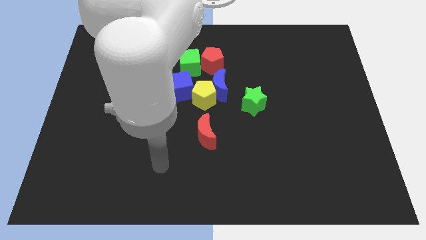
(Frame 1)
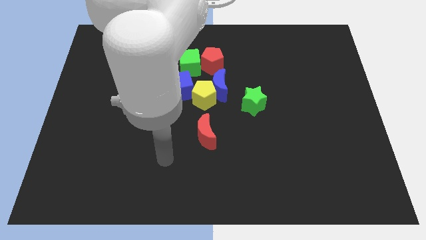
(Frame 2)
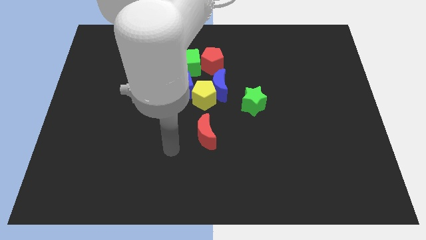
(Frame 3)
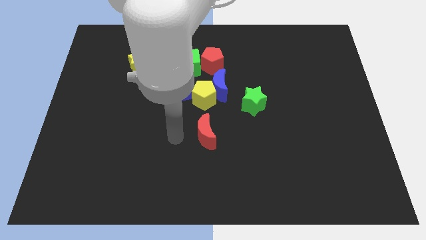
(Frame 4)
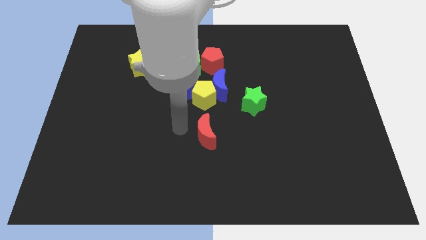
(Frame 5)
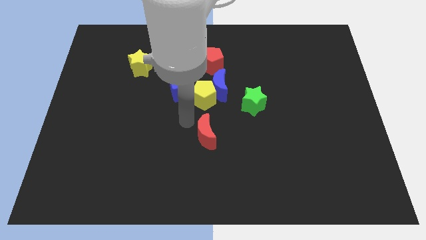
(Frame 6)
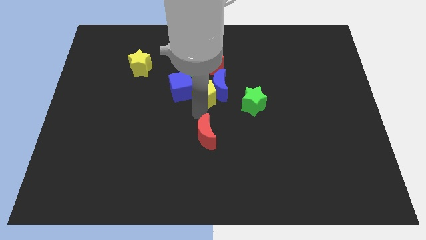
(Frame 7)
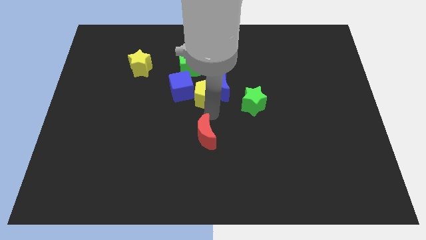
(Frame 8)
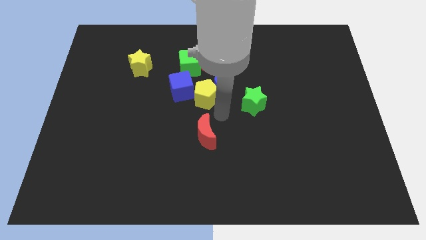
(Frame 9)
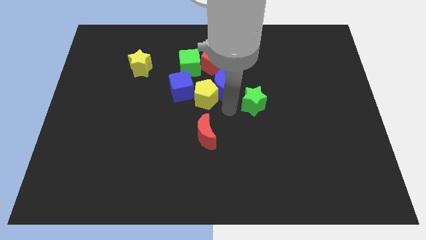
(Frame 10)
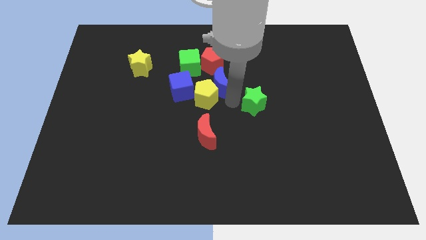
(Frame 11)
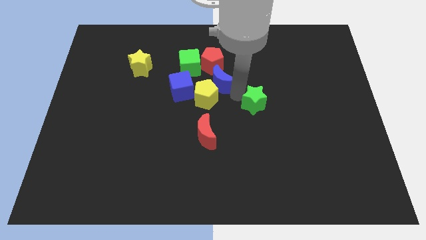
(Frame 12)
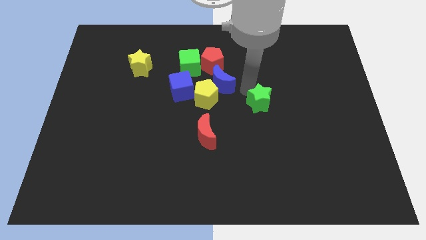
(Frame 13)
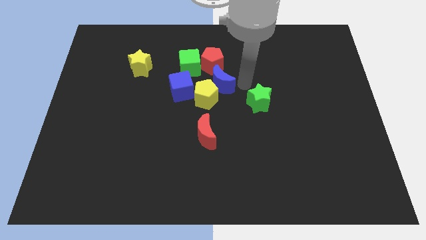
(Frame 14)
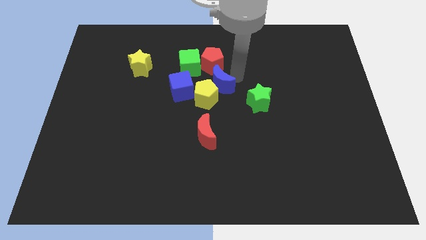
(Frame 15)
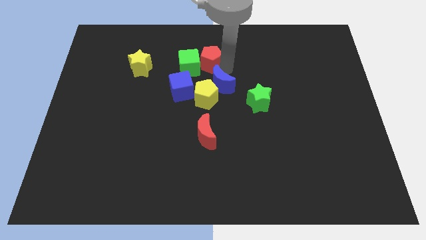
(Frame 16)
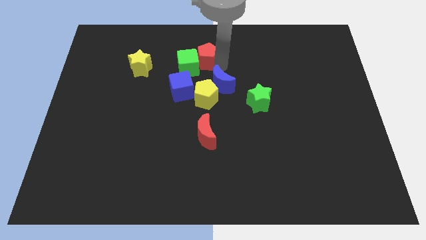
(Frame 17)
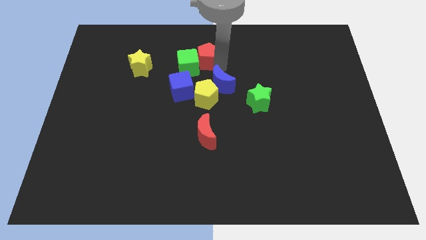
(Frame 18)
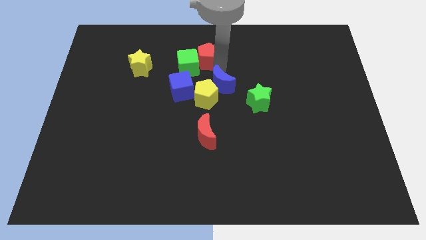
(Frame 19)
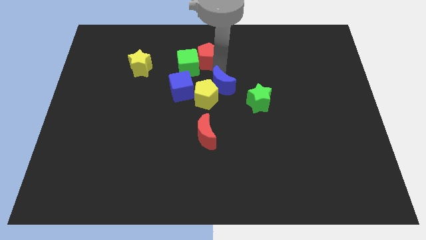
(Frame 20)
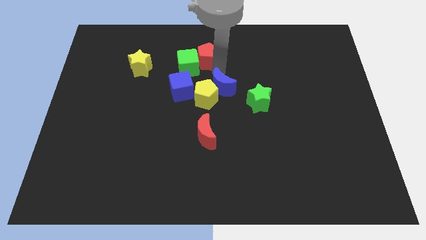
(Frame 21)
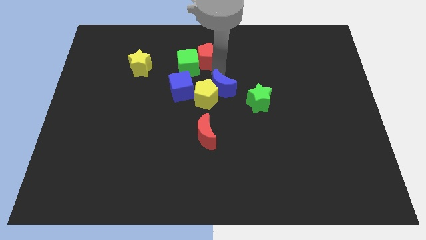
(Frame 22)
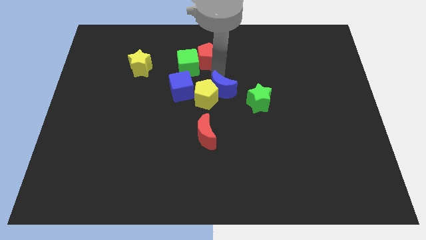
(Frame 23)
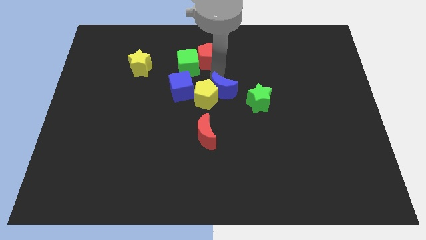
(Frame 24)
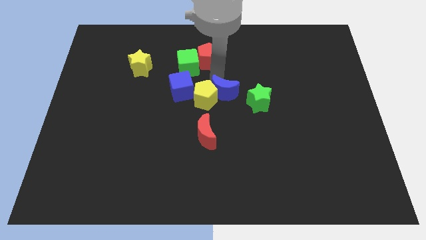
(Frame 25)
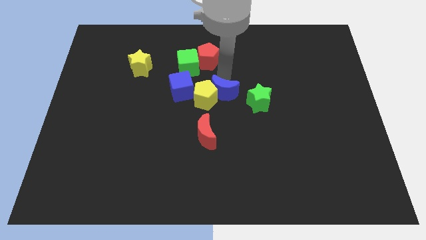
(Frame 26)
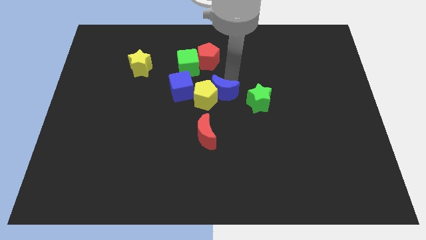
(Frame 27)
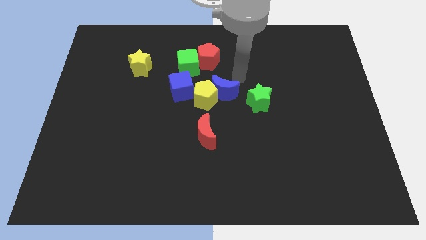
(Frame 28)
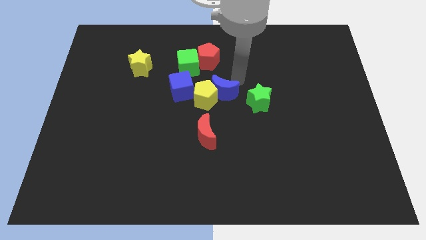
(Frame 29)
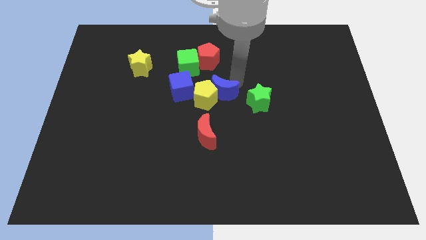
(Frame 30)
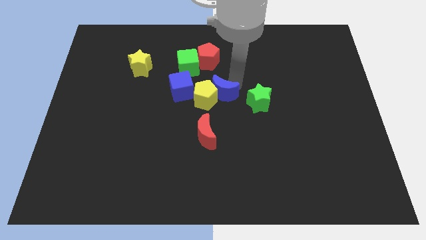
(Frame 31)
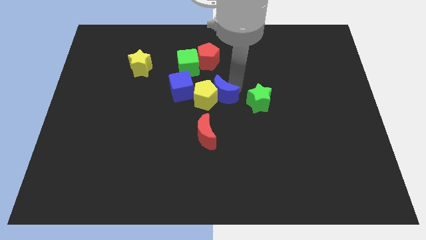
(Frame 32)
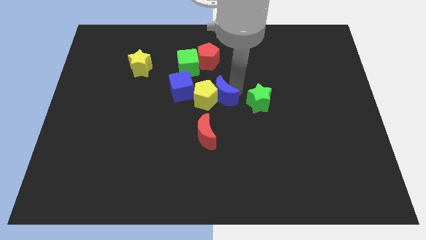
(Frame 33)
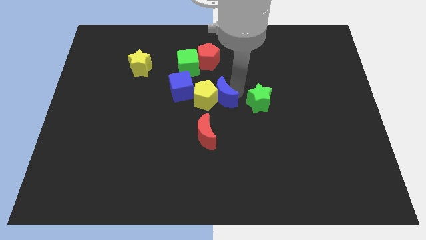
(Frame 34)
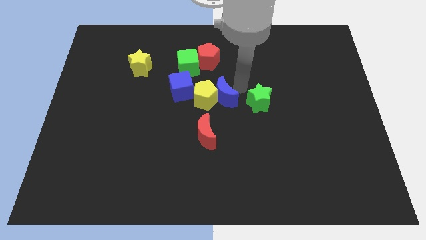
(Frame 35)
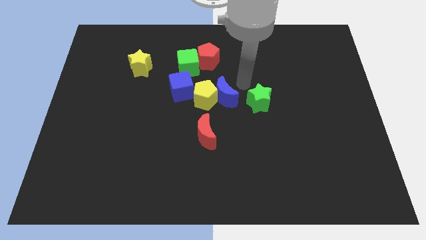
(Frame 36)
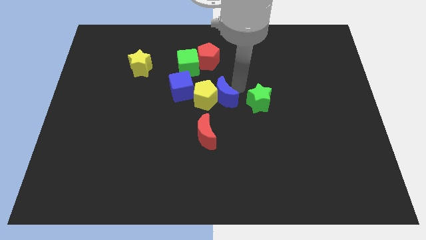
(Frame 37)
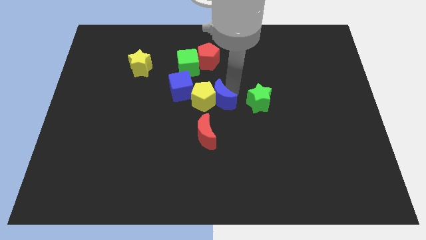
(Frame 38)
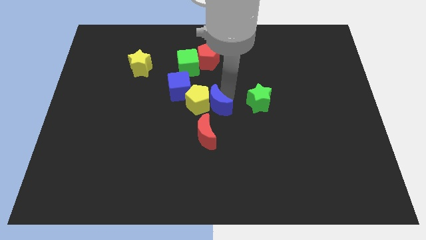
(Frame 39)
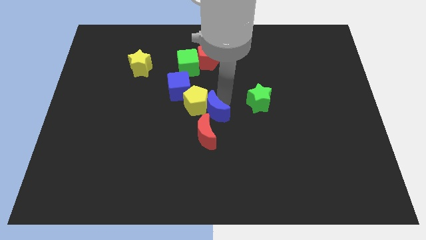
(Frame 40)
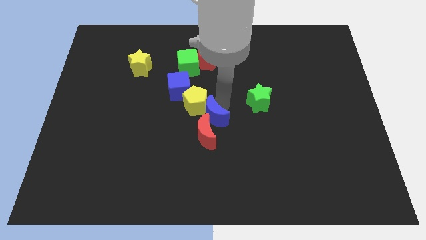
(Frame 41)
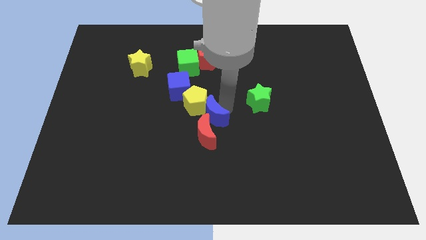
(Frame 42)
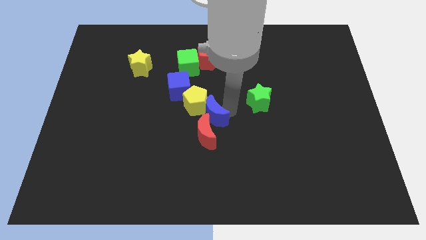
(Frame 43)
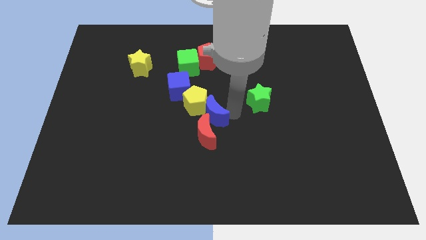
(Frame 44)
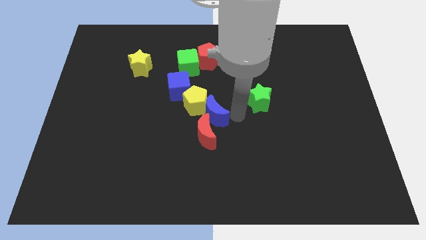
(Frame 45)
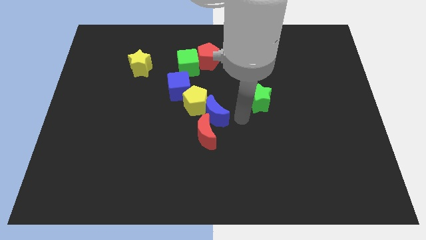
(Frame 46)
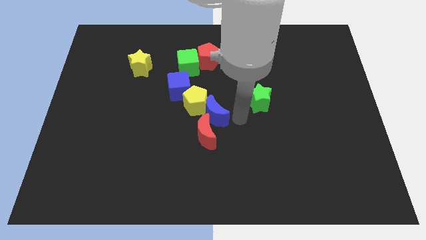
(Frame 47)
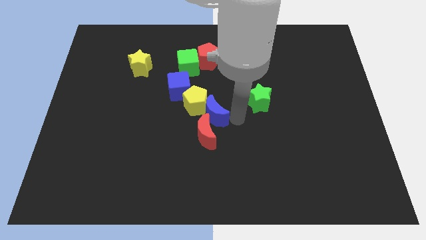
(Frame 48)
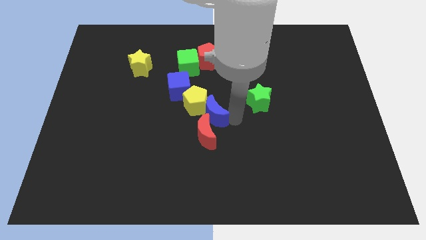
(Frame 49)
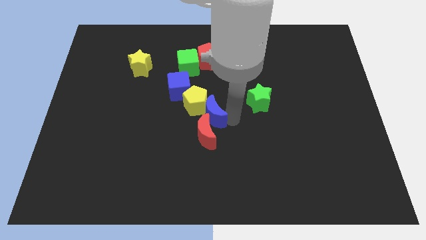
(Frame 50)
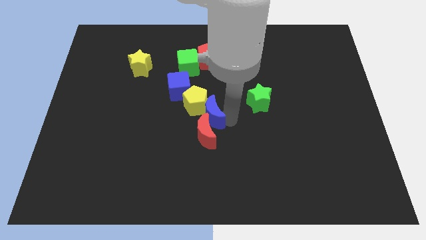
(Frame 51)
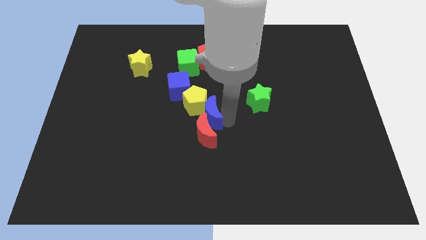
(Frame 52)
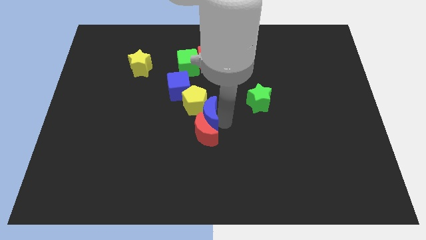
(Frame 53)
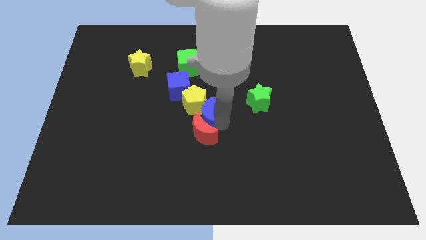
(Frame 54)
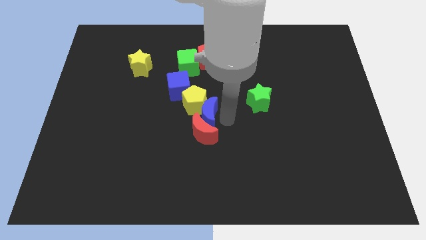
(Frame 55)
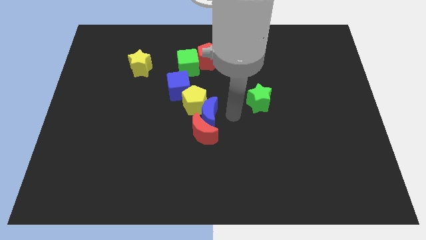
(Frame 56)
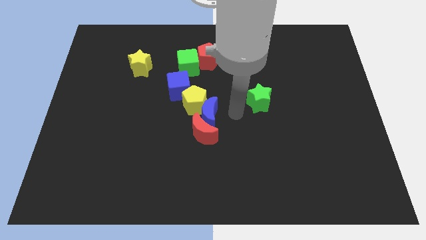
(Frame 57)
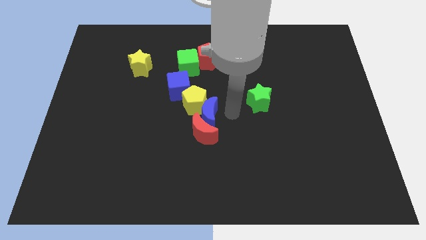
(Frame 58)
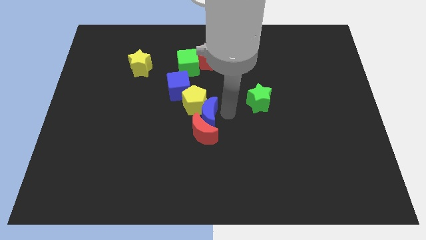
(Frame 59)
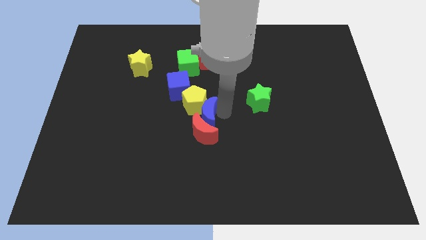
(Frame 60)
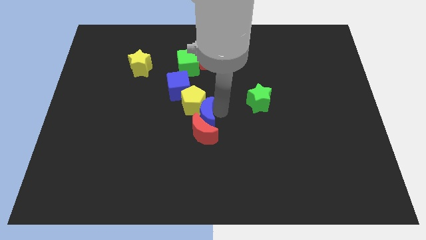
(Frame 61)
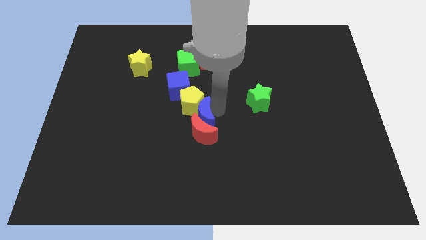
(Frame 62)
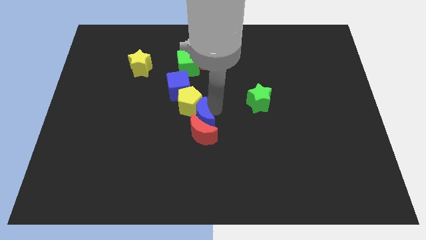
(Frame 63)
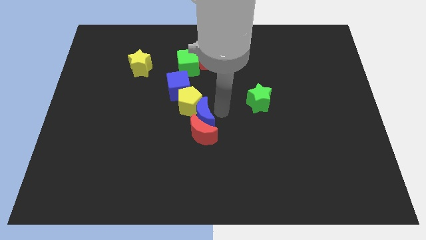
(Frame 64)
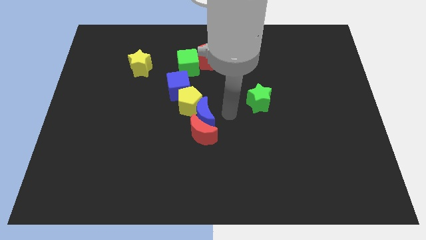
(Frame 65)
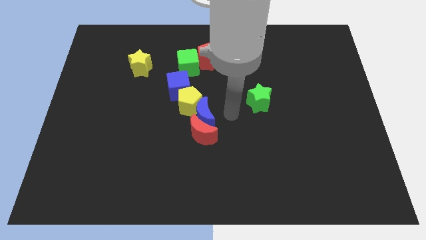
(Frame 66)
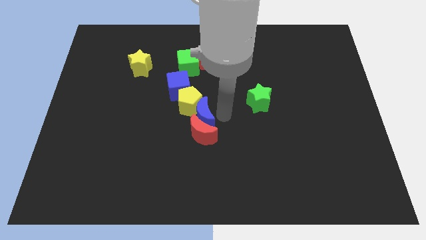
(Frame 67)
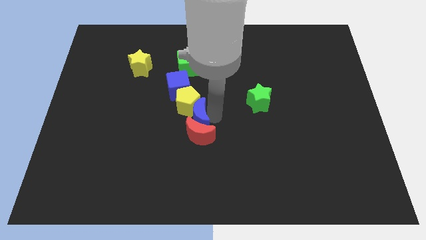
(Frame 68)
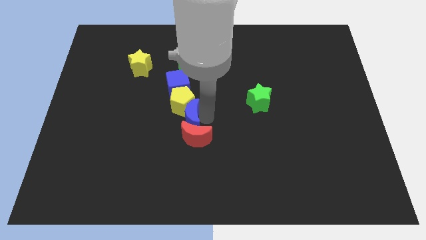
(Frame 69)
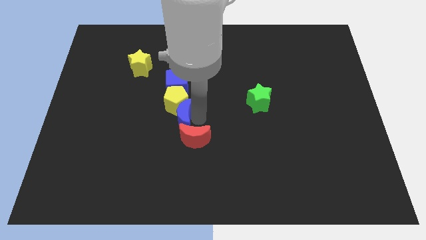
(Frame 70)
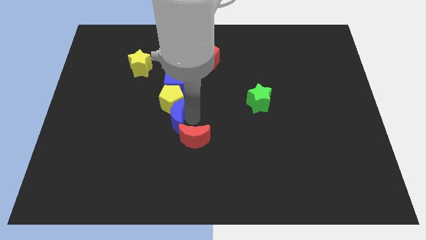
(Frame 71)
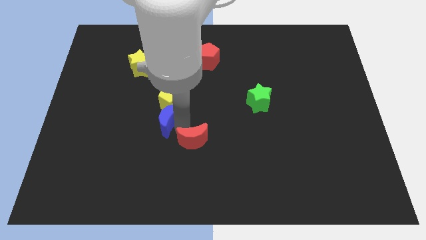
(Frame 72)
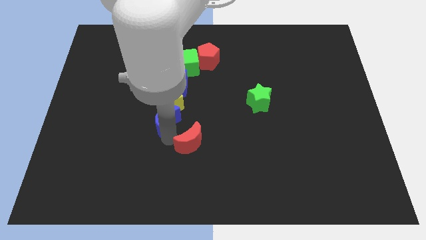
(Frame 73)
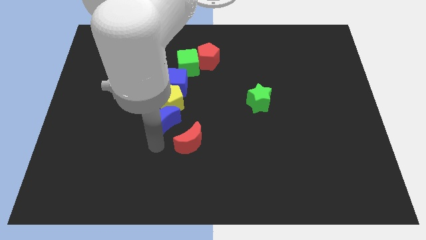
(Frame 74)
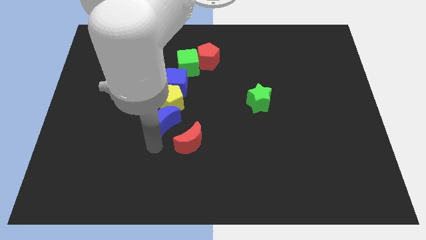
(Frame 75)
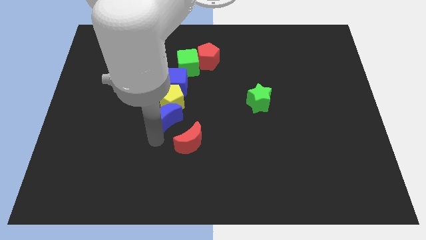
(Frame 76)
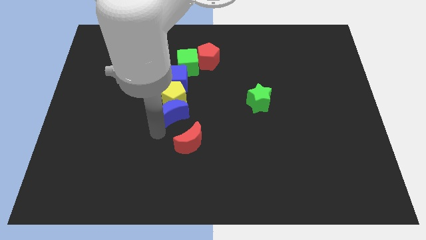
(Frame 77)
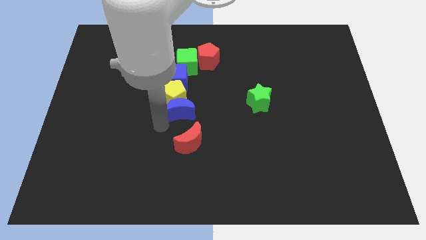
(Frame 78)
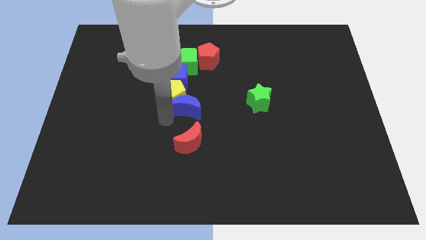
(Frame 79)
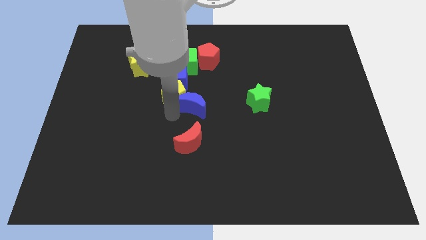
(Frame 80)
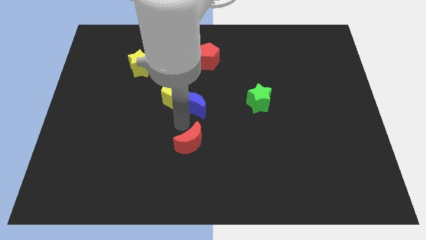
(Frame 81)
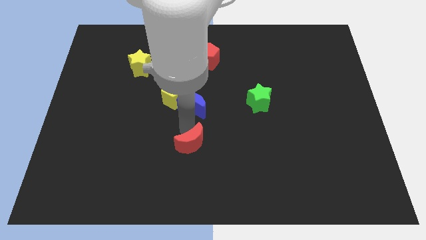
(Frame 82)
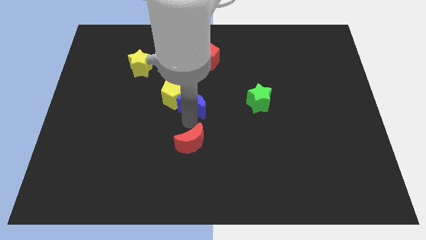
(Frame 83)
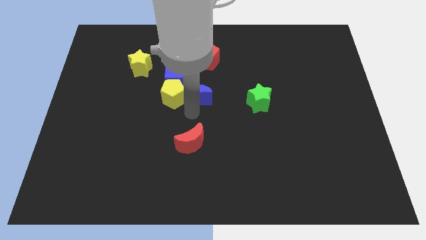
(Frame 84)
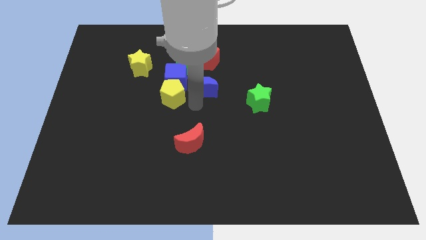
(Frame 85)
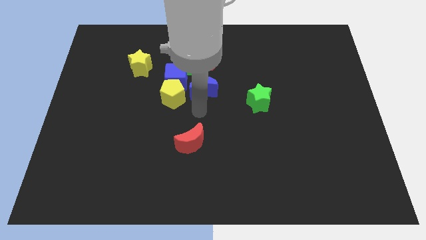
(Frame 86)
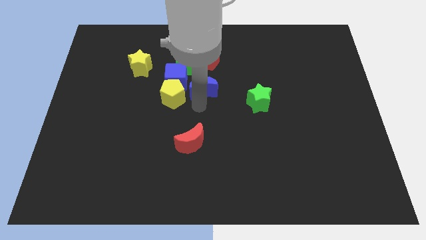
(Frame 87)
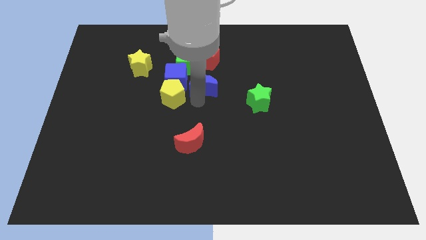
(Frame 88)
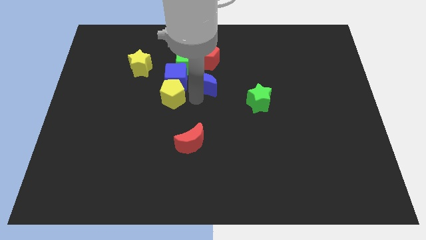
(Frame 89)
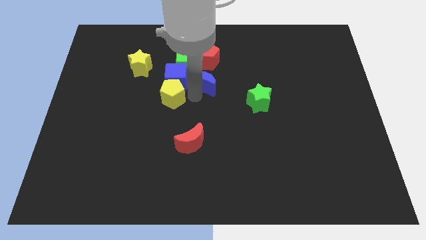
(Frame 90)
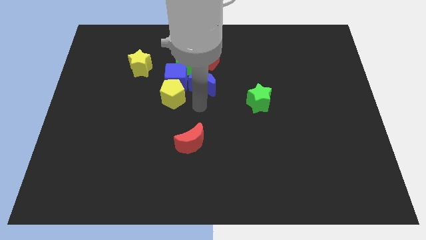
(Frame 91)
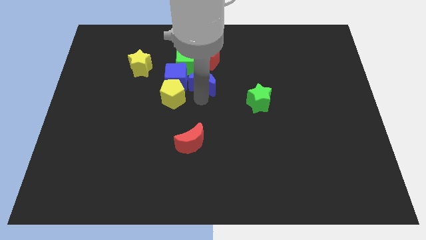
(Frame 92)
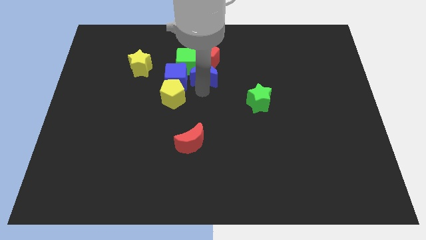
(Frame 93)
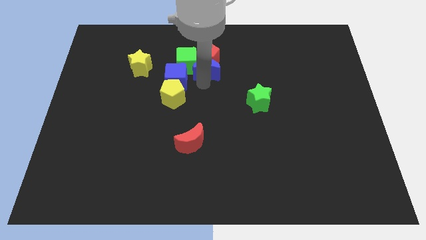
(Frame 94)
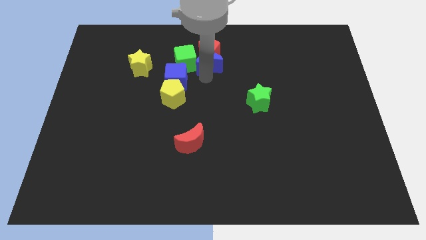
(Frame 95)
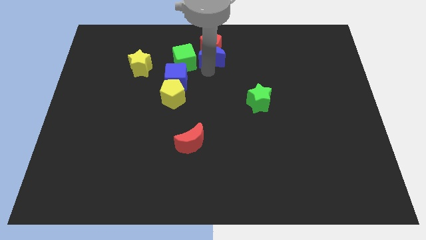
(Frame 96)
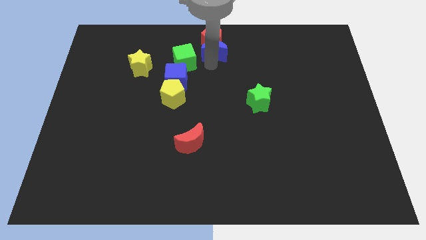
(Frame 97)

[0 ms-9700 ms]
slide the blue moon to the top
